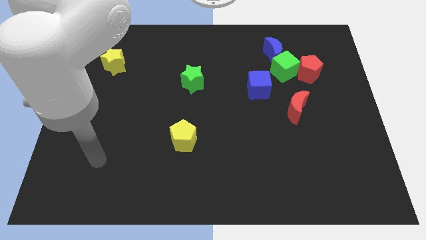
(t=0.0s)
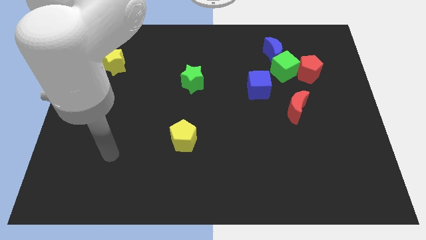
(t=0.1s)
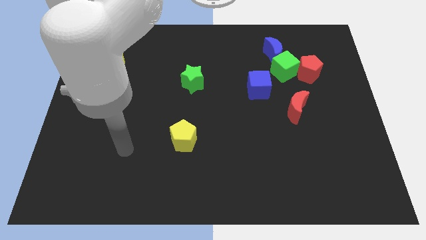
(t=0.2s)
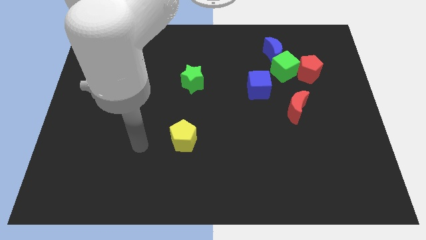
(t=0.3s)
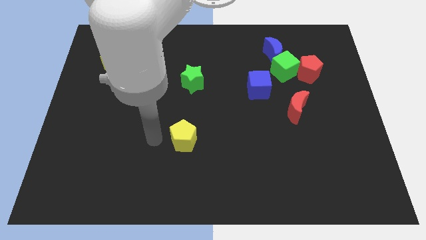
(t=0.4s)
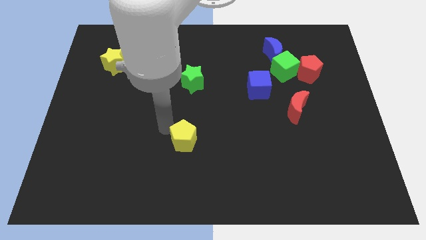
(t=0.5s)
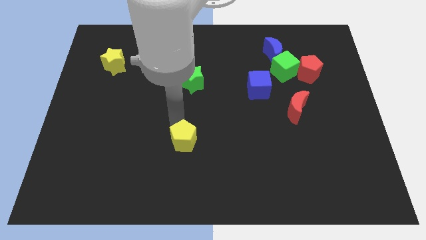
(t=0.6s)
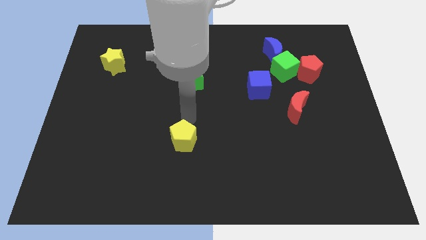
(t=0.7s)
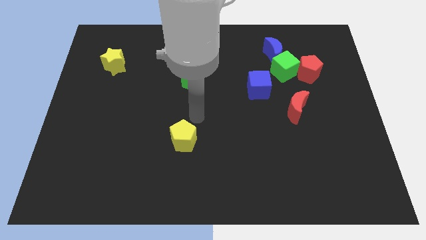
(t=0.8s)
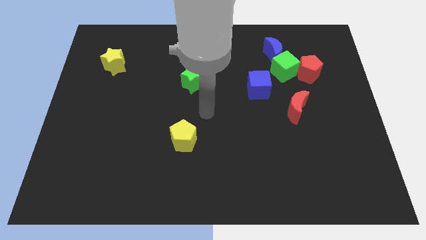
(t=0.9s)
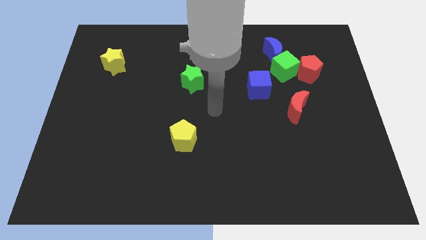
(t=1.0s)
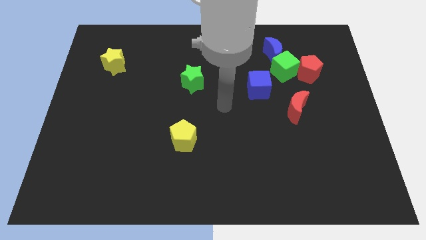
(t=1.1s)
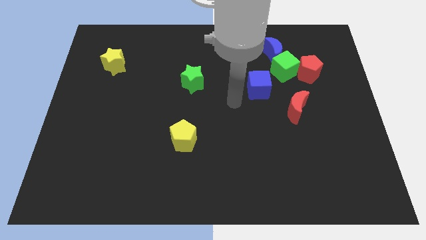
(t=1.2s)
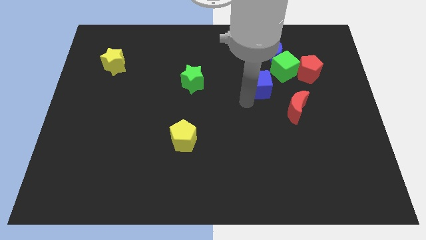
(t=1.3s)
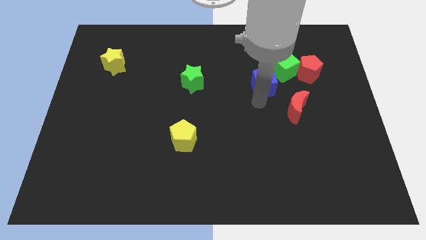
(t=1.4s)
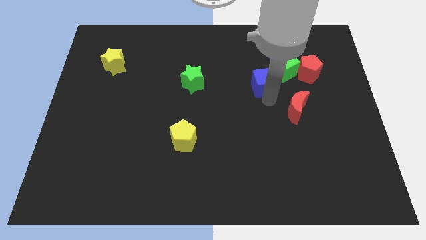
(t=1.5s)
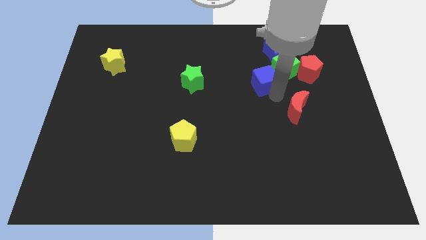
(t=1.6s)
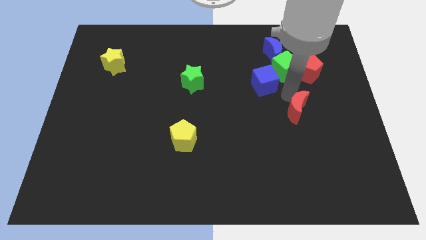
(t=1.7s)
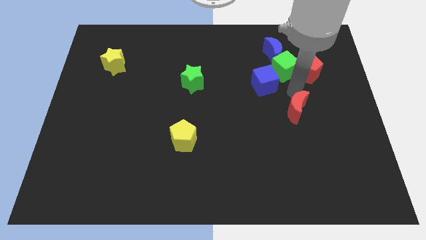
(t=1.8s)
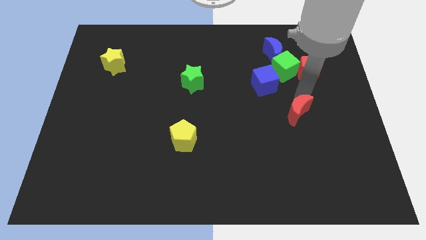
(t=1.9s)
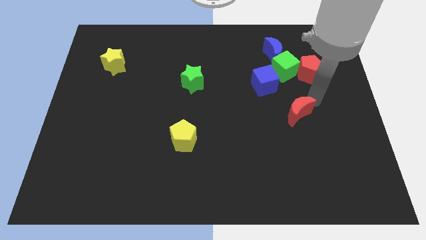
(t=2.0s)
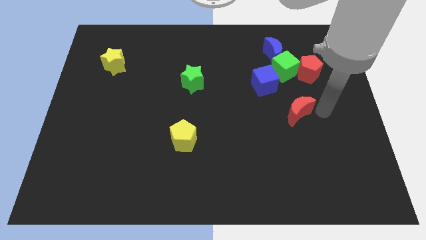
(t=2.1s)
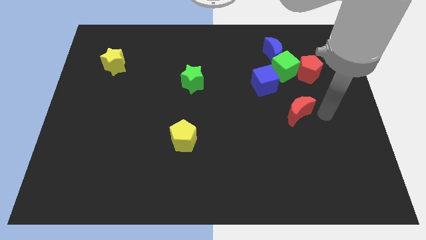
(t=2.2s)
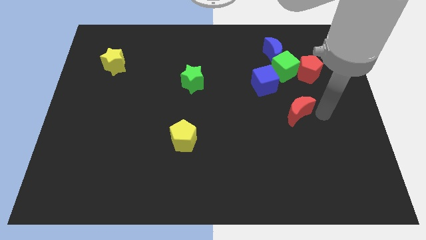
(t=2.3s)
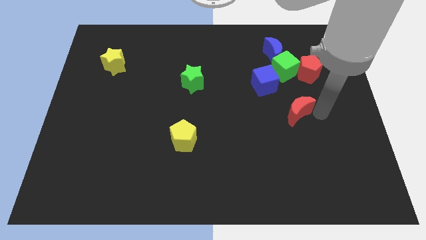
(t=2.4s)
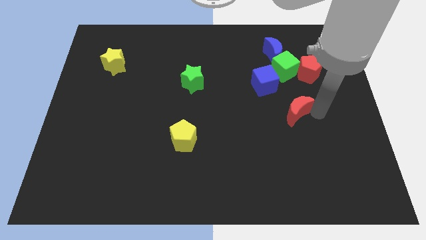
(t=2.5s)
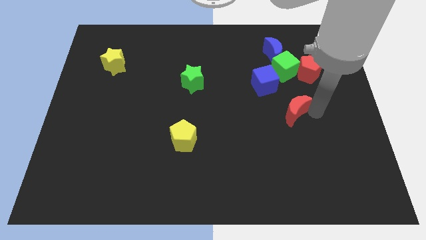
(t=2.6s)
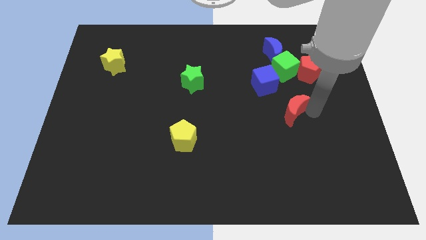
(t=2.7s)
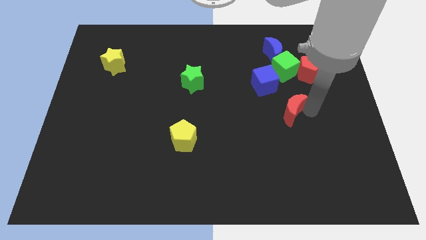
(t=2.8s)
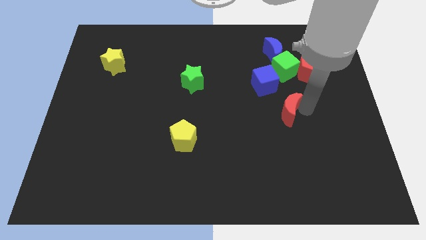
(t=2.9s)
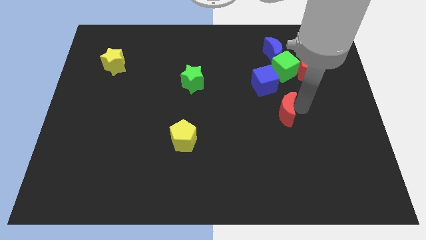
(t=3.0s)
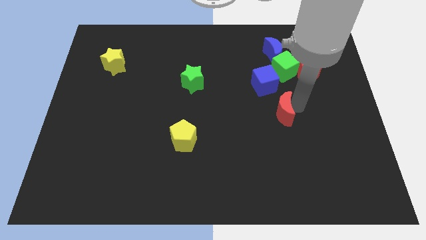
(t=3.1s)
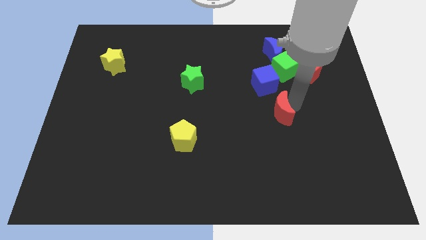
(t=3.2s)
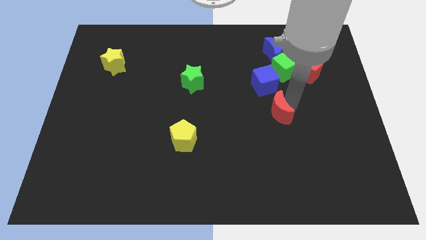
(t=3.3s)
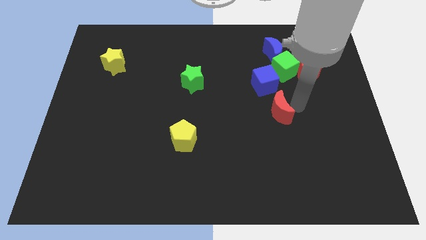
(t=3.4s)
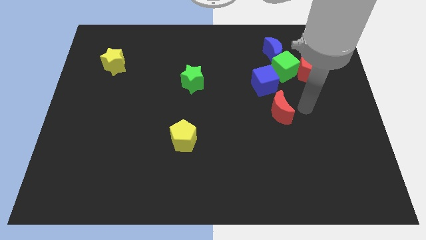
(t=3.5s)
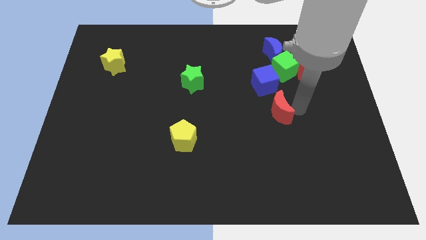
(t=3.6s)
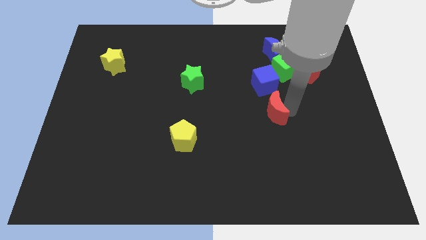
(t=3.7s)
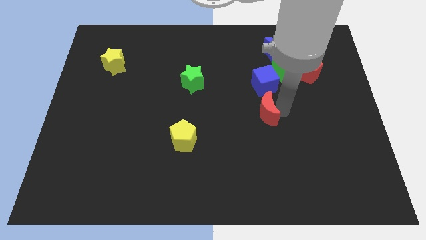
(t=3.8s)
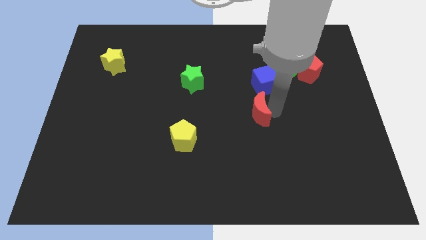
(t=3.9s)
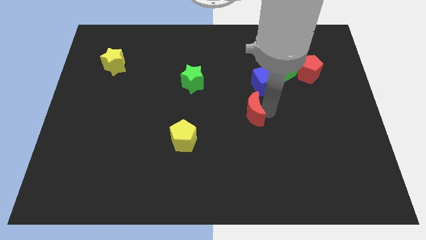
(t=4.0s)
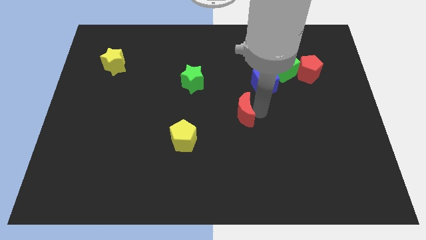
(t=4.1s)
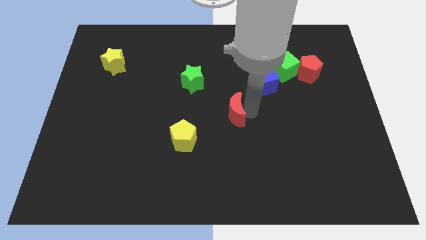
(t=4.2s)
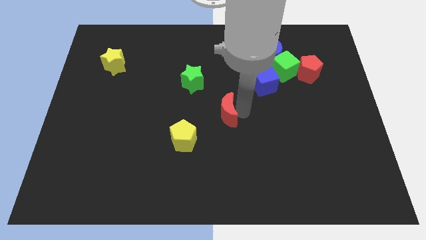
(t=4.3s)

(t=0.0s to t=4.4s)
put the red moon to the top right side of the yellow pentagon

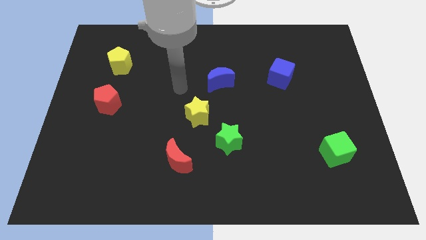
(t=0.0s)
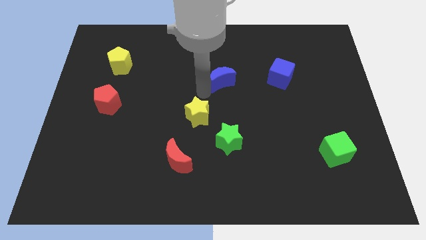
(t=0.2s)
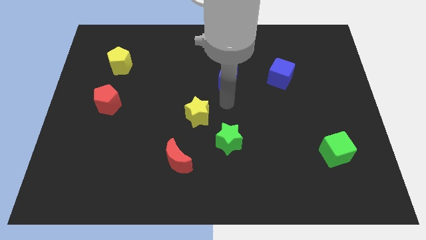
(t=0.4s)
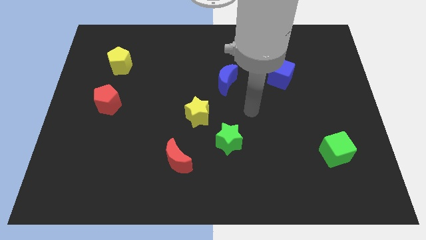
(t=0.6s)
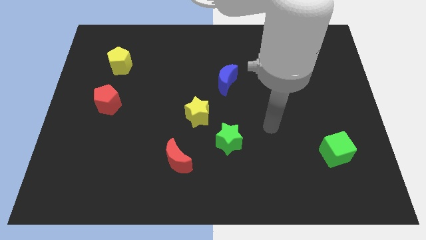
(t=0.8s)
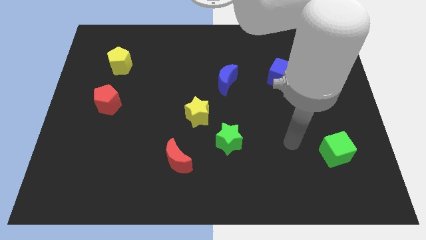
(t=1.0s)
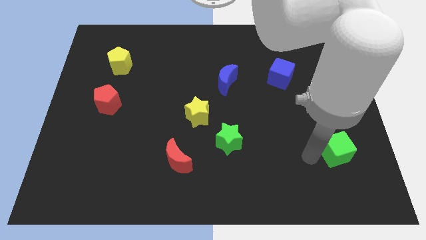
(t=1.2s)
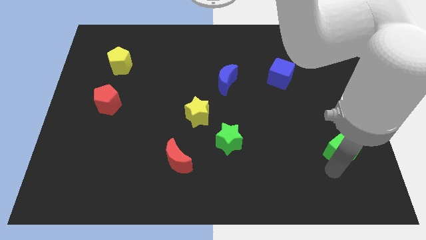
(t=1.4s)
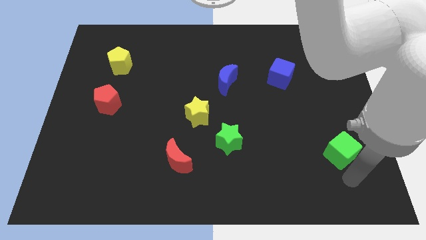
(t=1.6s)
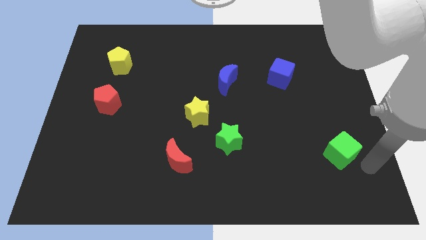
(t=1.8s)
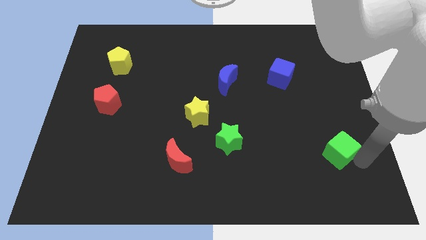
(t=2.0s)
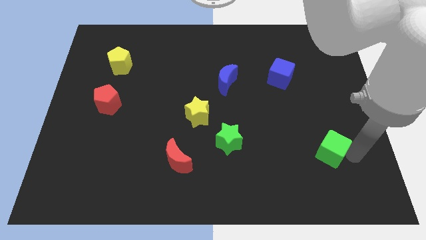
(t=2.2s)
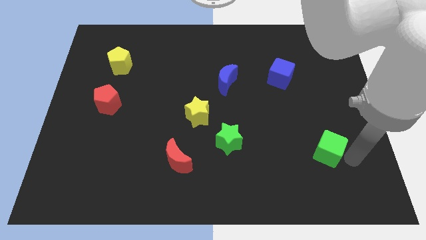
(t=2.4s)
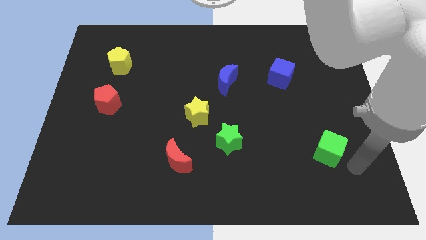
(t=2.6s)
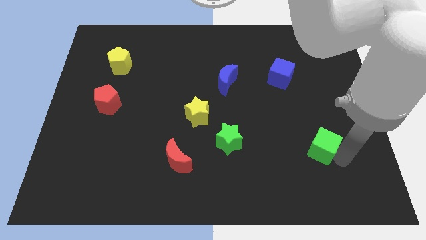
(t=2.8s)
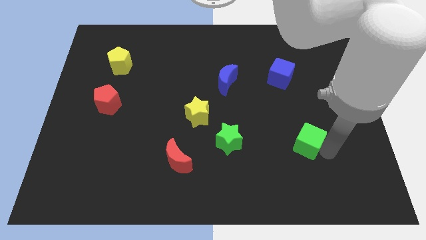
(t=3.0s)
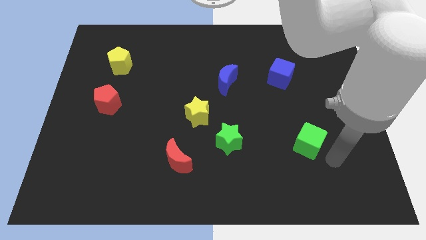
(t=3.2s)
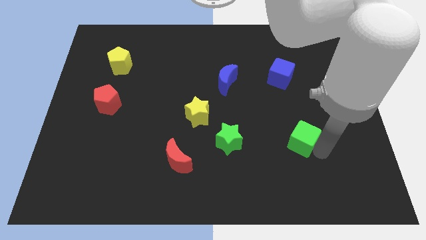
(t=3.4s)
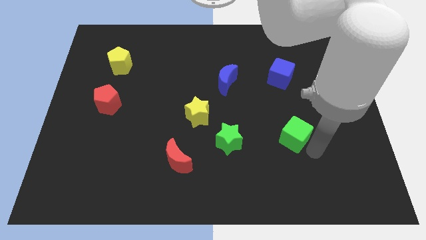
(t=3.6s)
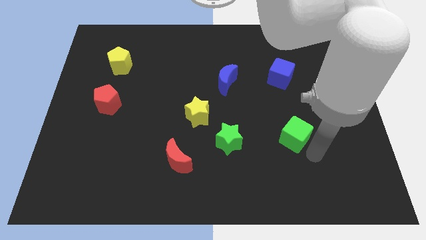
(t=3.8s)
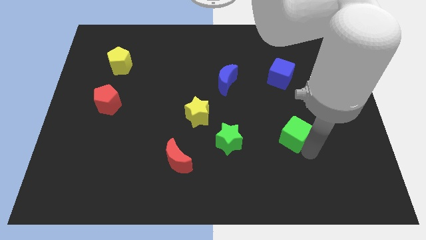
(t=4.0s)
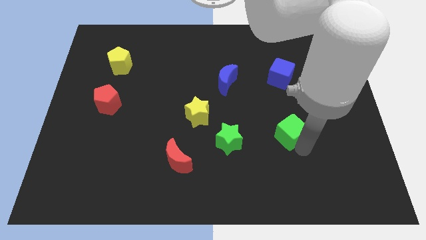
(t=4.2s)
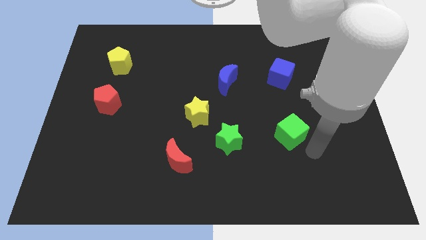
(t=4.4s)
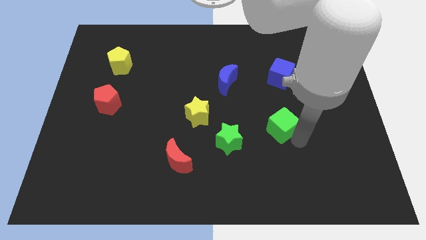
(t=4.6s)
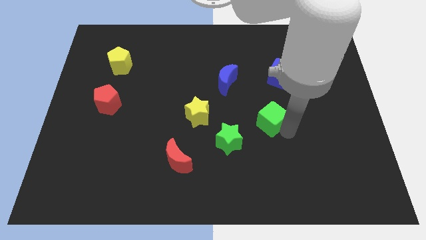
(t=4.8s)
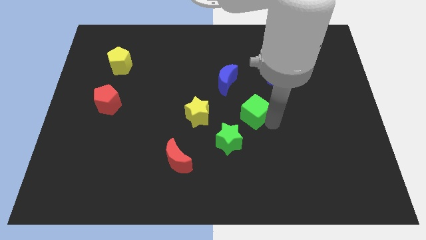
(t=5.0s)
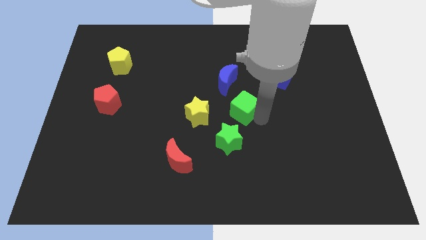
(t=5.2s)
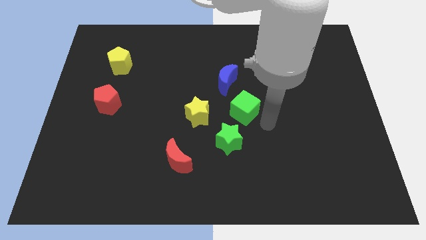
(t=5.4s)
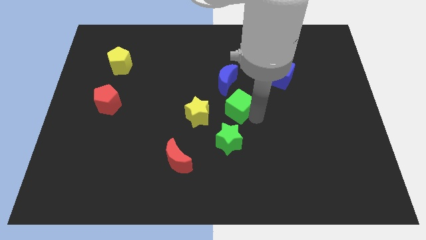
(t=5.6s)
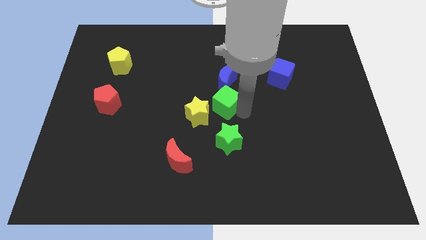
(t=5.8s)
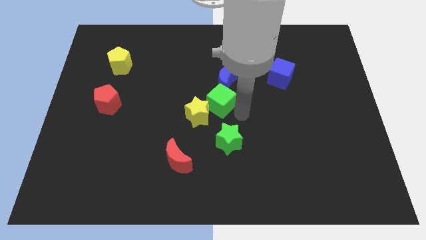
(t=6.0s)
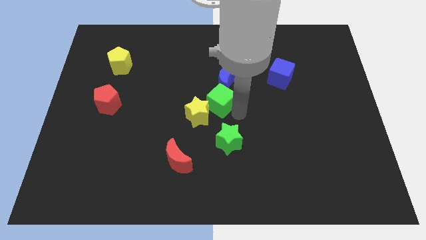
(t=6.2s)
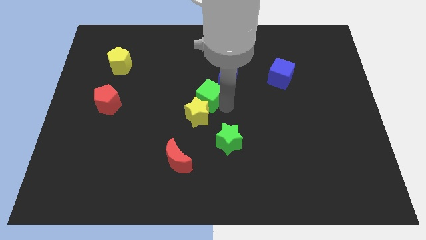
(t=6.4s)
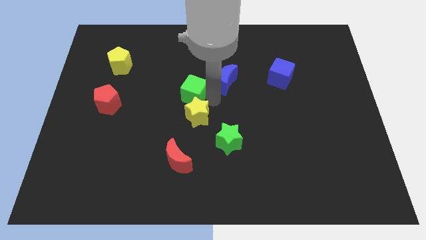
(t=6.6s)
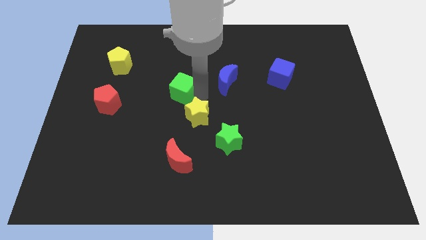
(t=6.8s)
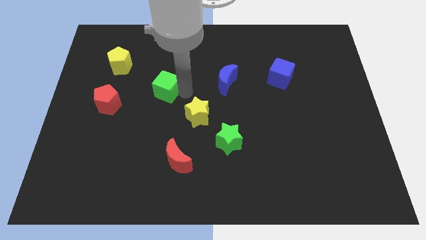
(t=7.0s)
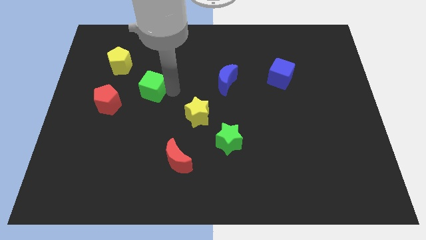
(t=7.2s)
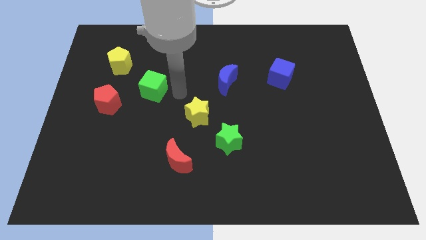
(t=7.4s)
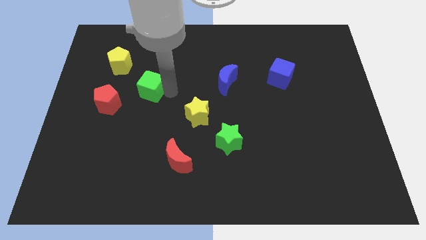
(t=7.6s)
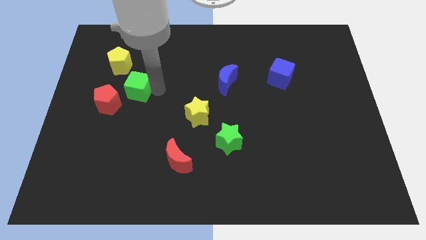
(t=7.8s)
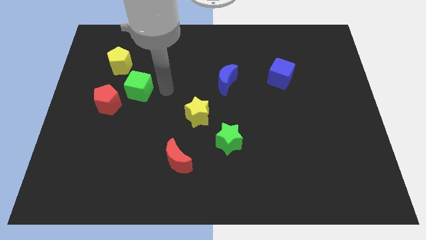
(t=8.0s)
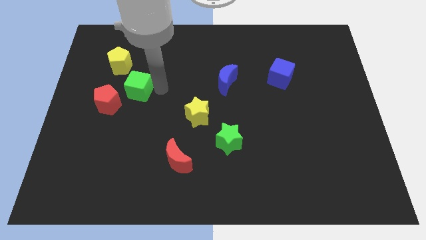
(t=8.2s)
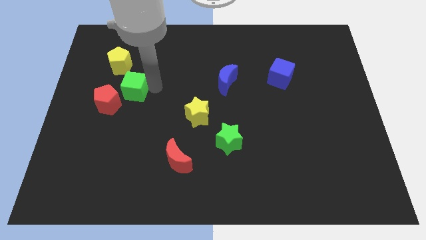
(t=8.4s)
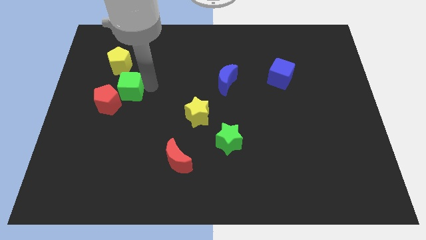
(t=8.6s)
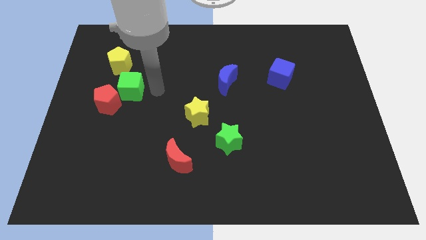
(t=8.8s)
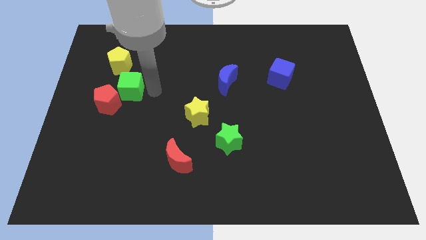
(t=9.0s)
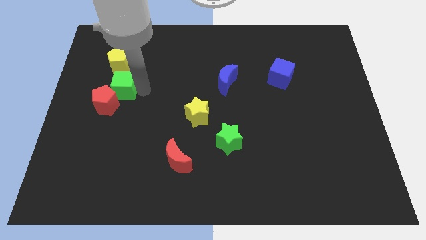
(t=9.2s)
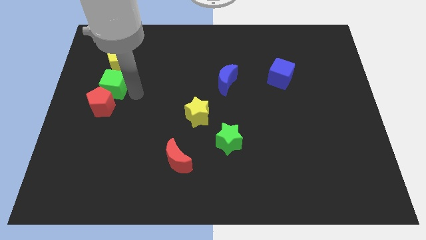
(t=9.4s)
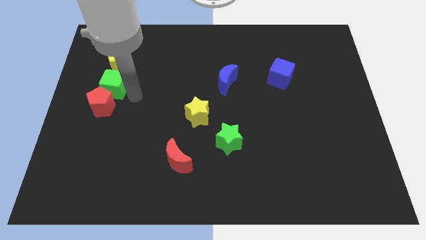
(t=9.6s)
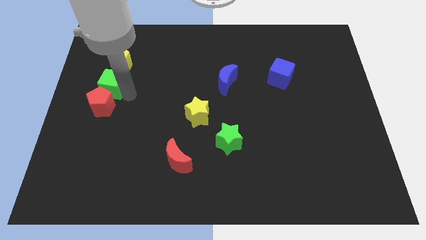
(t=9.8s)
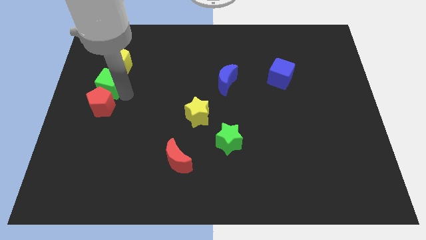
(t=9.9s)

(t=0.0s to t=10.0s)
push the green cube to the bottom left side of the yellow pentagon
